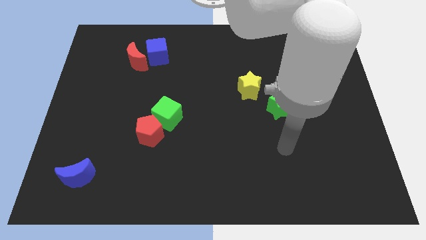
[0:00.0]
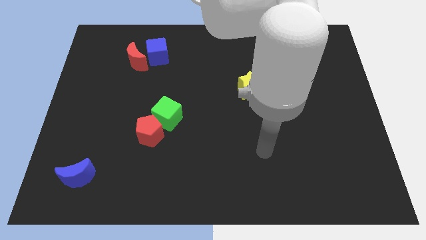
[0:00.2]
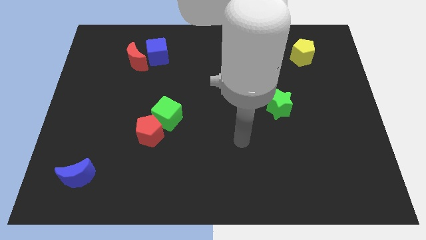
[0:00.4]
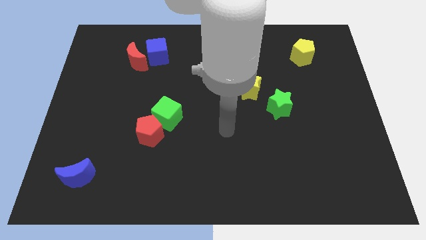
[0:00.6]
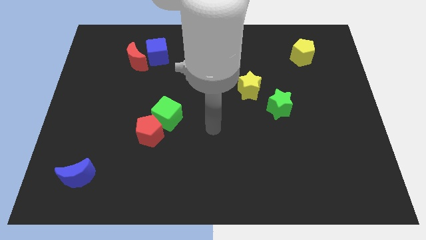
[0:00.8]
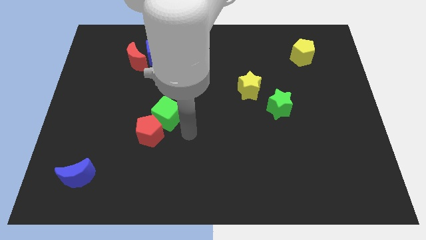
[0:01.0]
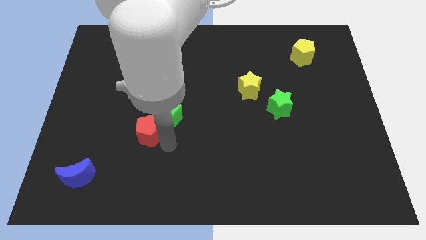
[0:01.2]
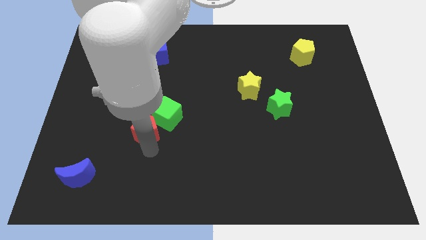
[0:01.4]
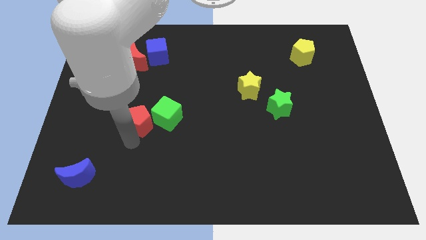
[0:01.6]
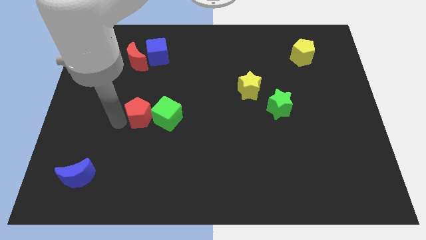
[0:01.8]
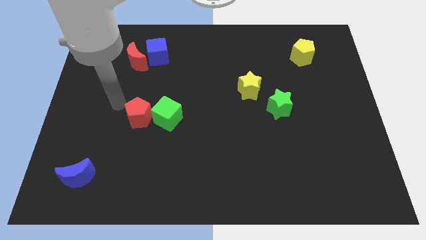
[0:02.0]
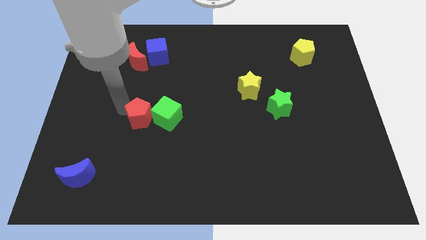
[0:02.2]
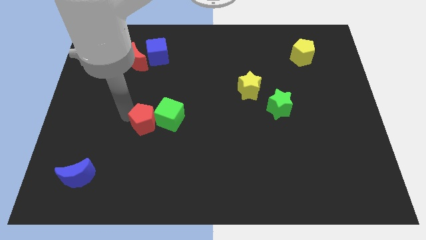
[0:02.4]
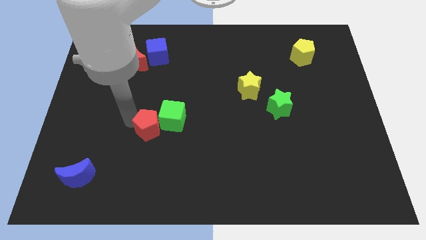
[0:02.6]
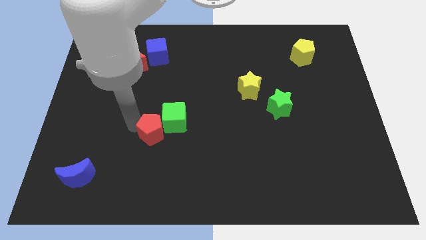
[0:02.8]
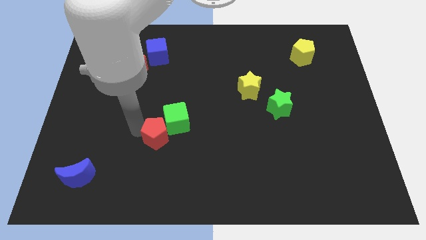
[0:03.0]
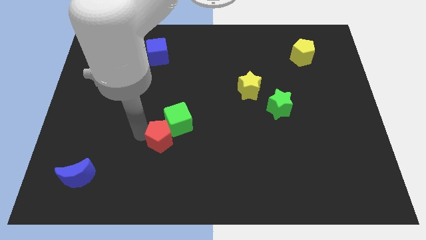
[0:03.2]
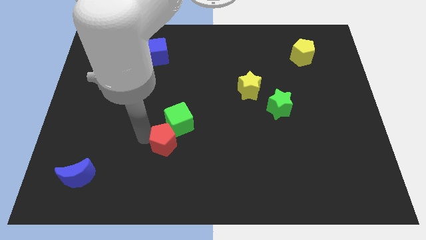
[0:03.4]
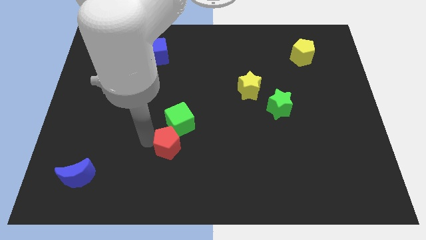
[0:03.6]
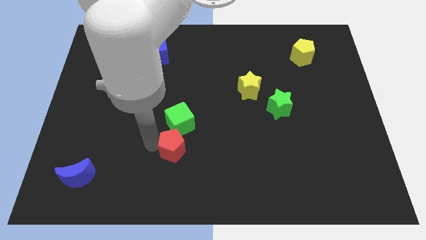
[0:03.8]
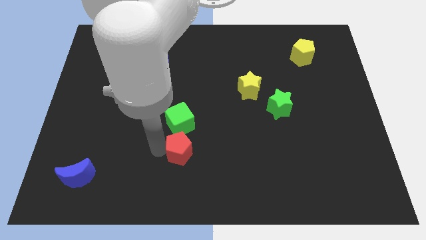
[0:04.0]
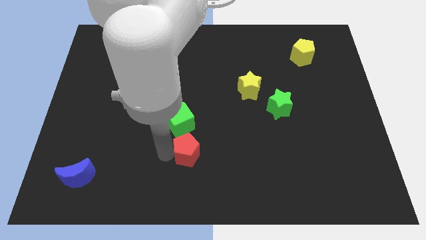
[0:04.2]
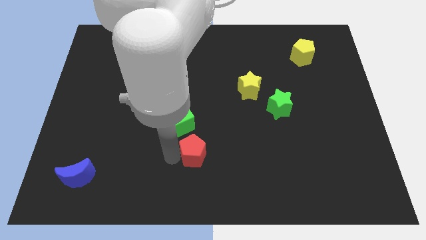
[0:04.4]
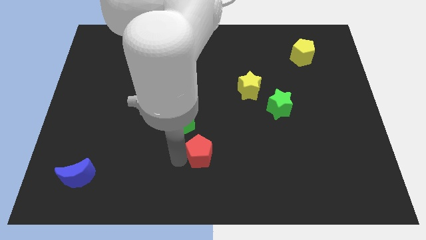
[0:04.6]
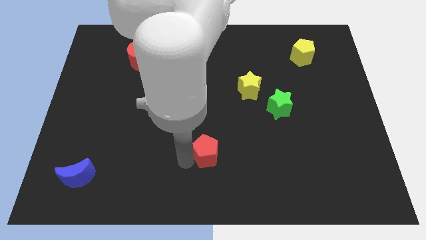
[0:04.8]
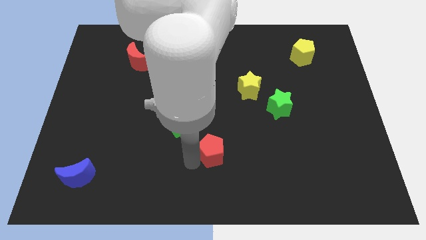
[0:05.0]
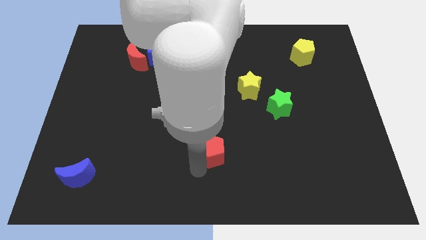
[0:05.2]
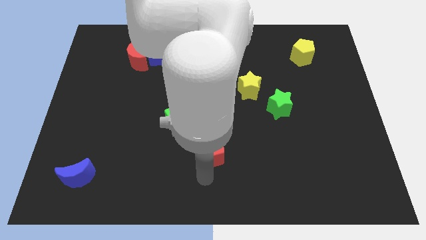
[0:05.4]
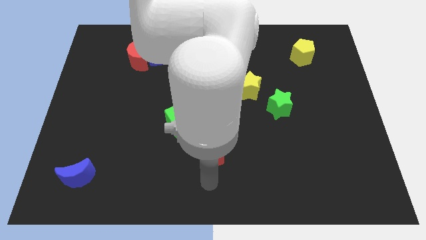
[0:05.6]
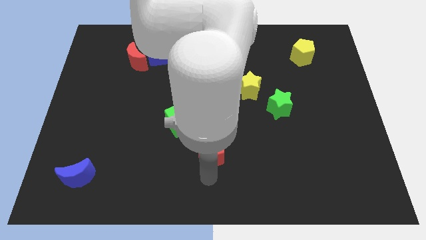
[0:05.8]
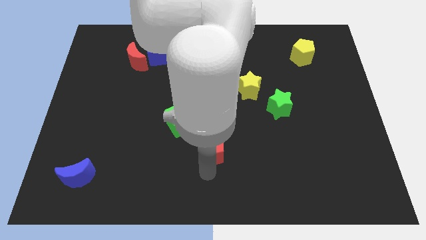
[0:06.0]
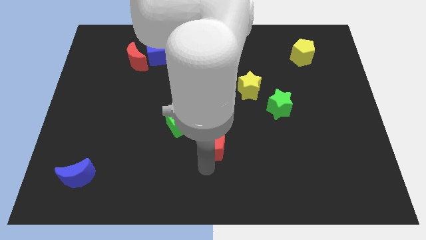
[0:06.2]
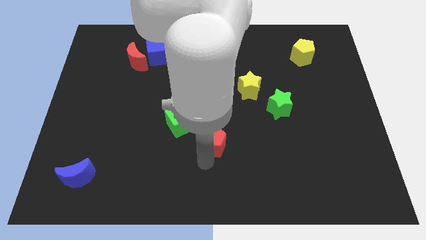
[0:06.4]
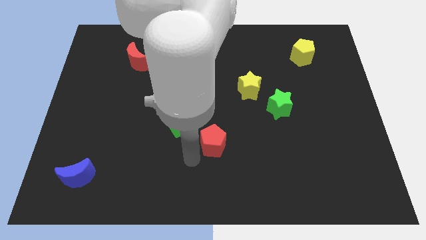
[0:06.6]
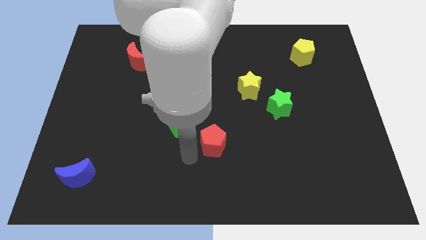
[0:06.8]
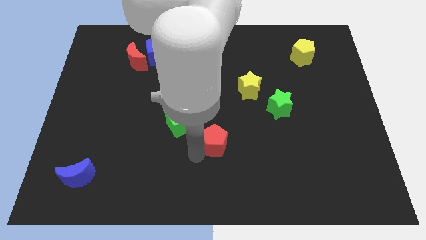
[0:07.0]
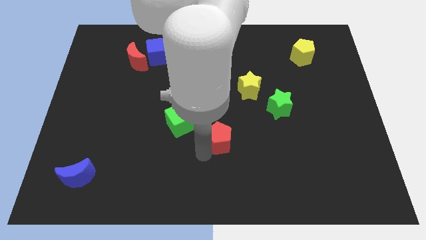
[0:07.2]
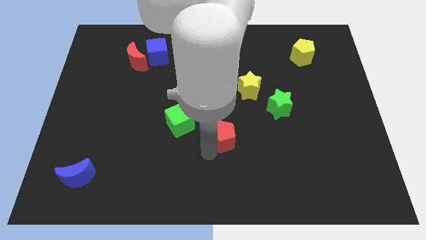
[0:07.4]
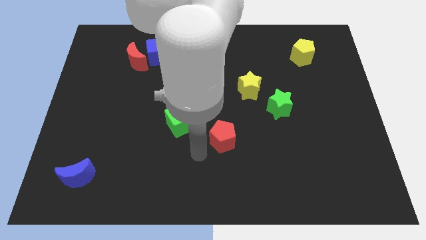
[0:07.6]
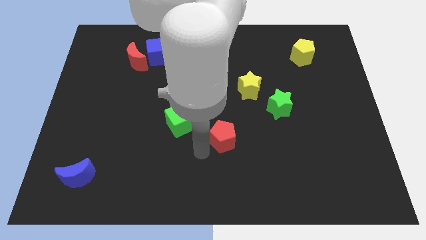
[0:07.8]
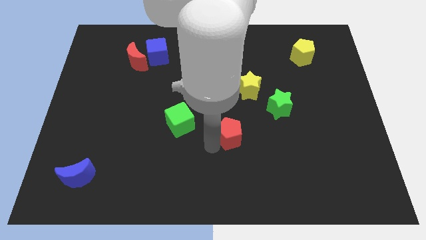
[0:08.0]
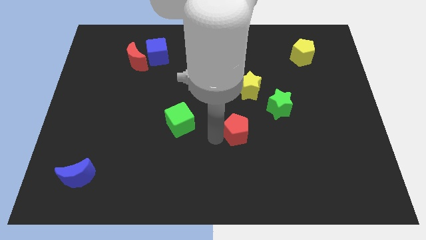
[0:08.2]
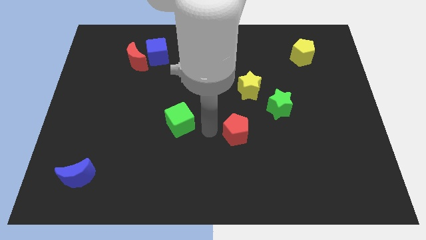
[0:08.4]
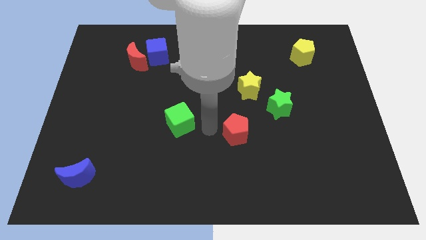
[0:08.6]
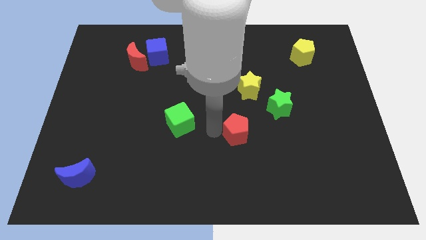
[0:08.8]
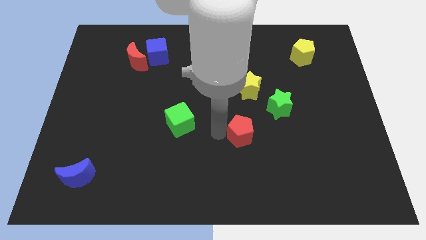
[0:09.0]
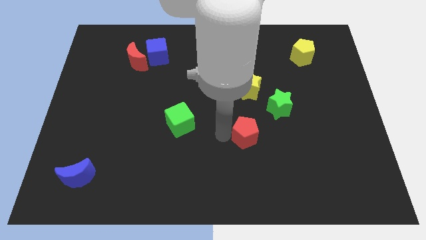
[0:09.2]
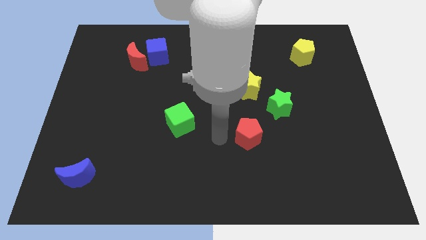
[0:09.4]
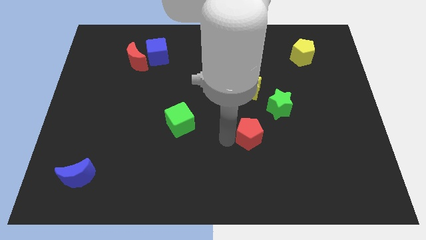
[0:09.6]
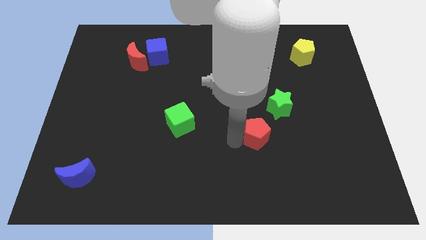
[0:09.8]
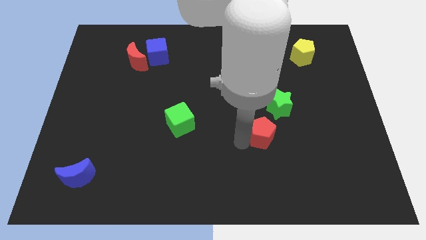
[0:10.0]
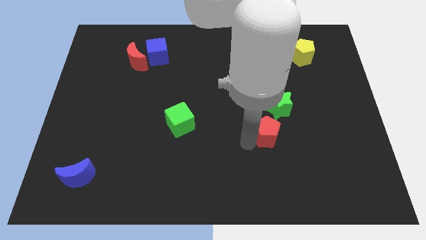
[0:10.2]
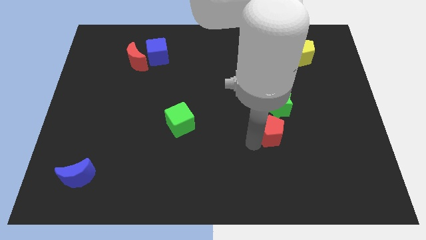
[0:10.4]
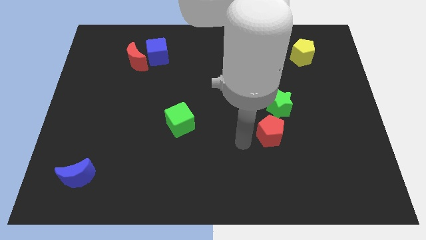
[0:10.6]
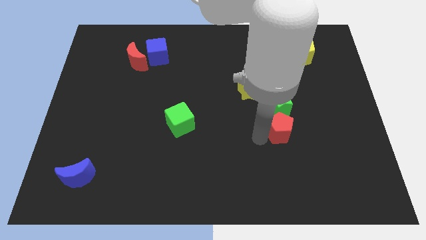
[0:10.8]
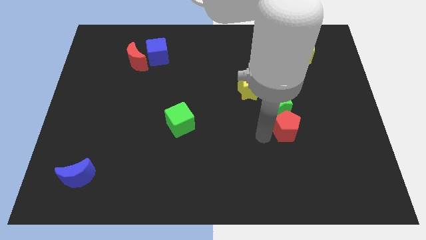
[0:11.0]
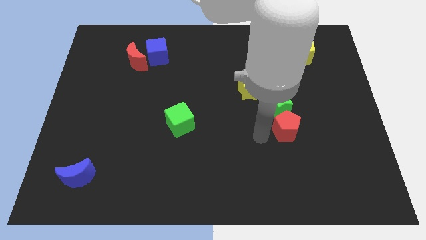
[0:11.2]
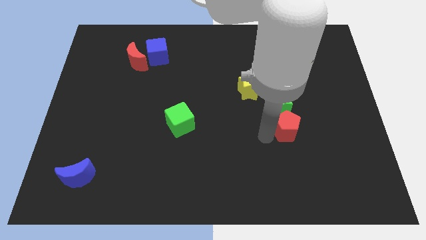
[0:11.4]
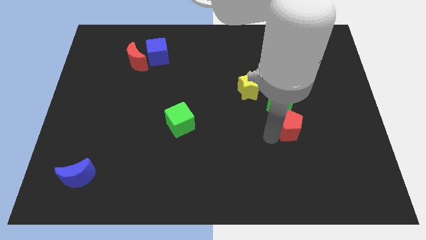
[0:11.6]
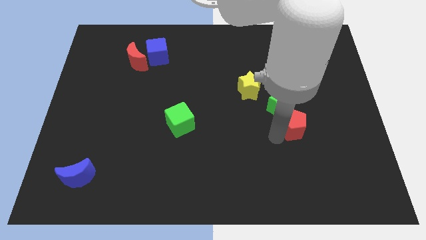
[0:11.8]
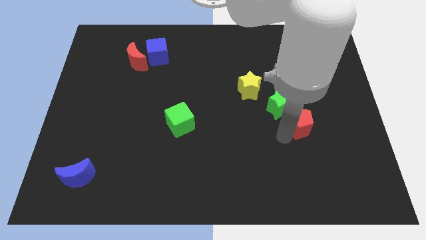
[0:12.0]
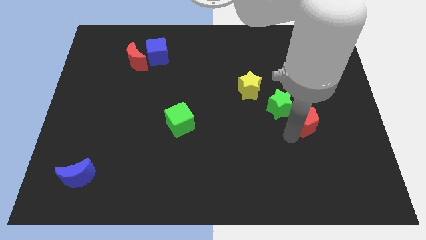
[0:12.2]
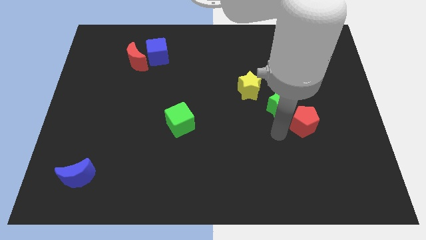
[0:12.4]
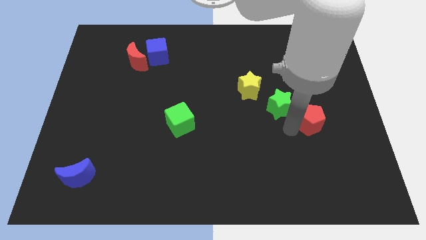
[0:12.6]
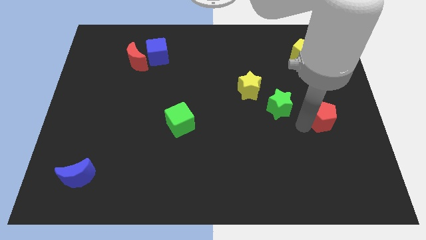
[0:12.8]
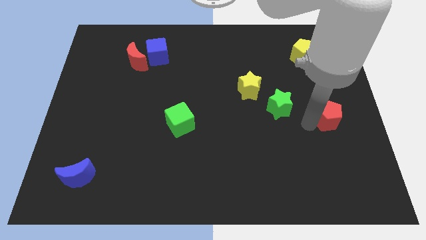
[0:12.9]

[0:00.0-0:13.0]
put the red pentagon to the right side of the board
